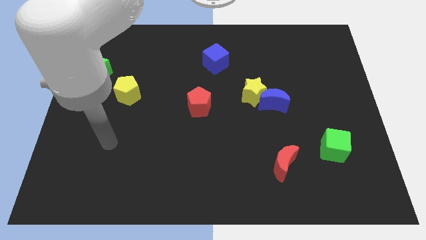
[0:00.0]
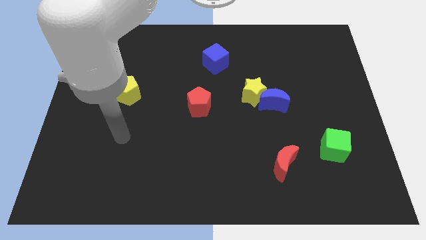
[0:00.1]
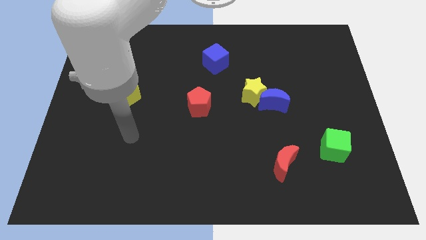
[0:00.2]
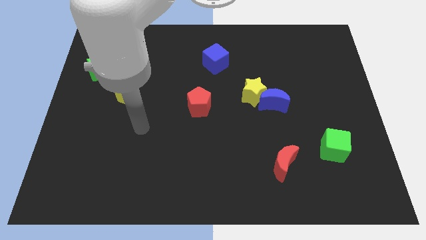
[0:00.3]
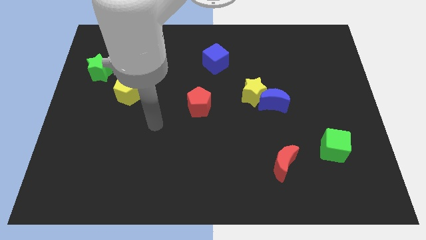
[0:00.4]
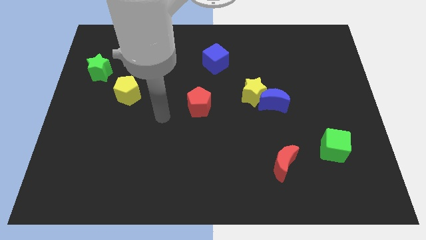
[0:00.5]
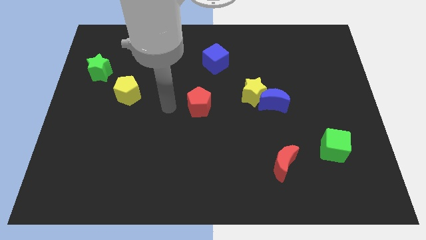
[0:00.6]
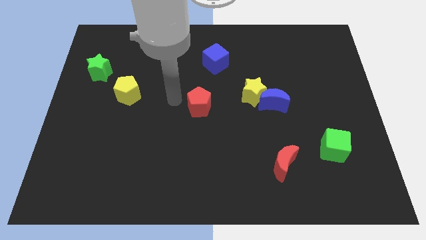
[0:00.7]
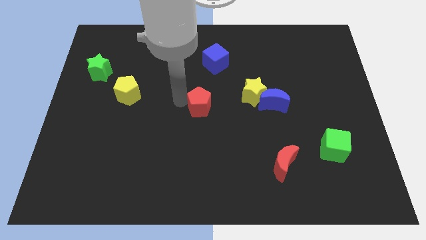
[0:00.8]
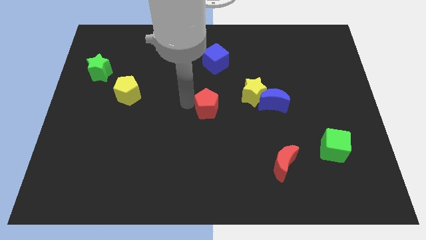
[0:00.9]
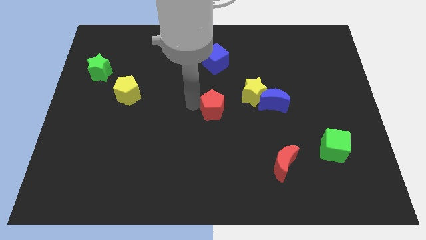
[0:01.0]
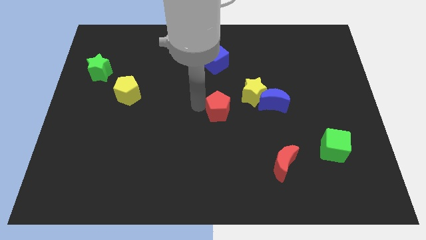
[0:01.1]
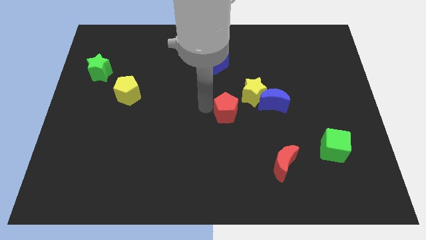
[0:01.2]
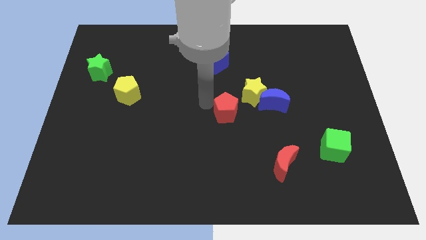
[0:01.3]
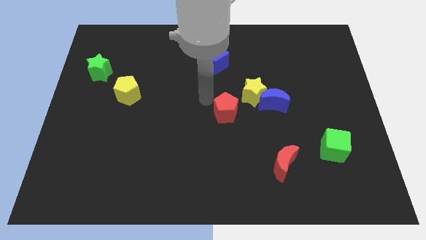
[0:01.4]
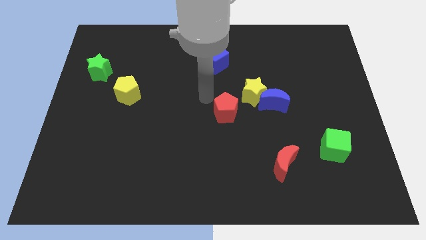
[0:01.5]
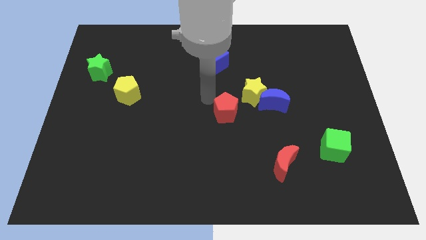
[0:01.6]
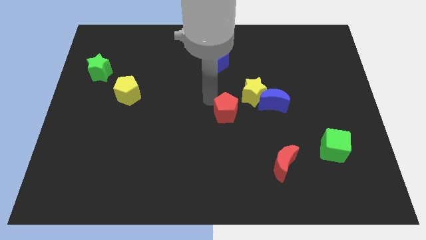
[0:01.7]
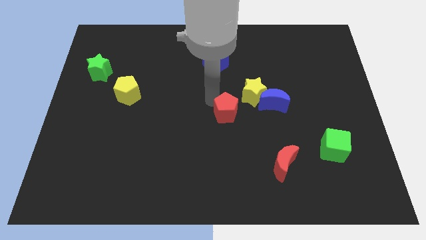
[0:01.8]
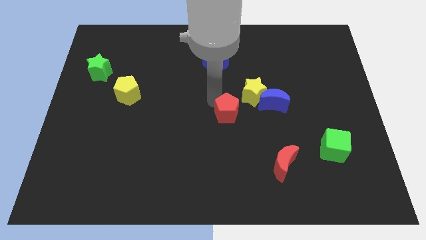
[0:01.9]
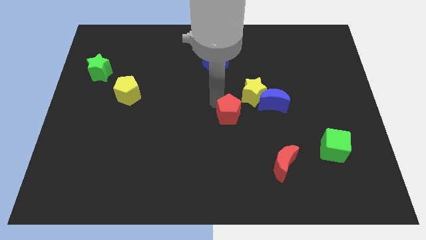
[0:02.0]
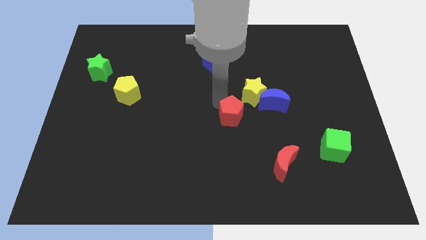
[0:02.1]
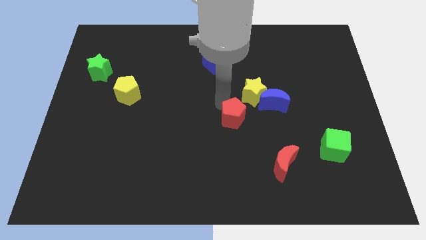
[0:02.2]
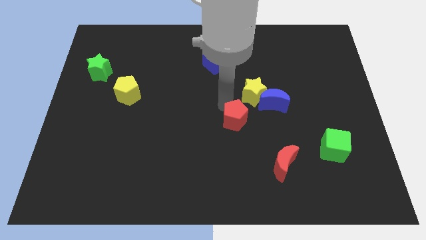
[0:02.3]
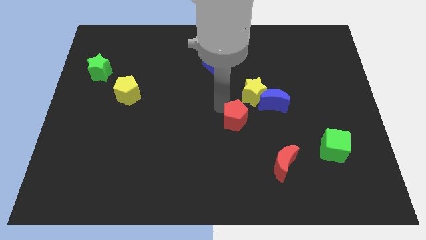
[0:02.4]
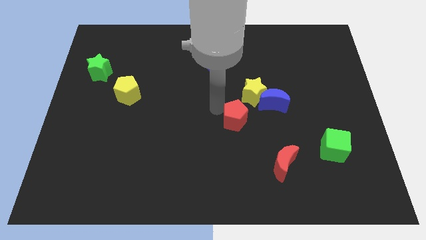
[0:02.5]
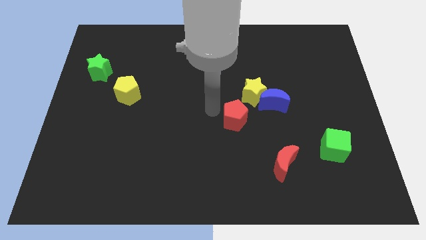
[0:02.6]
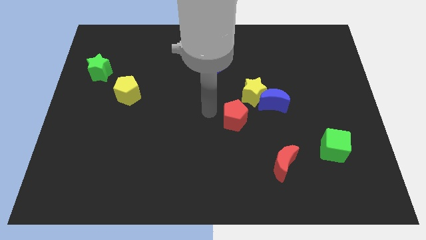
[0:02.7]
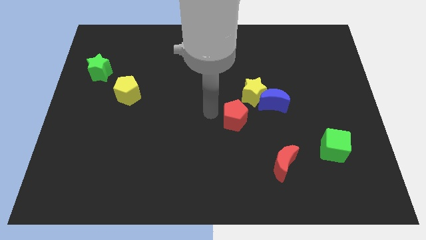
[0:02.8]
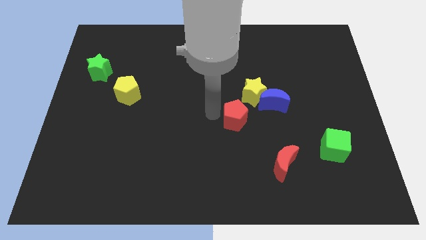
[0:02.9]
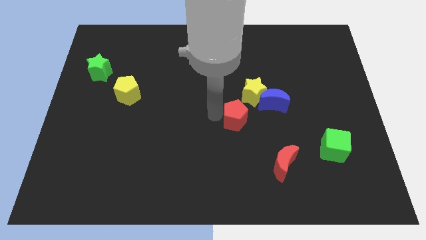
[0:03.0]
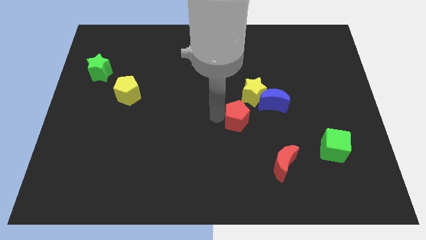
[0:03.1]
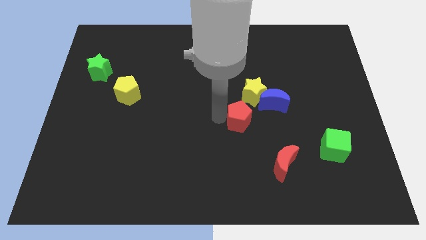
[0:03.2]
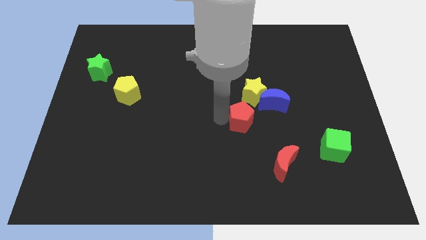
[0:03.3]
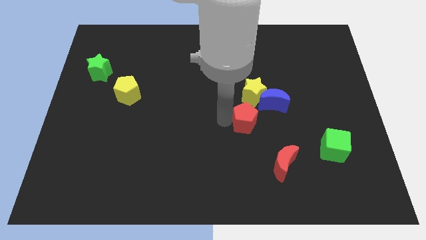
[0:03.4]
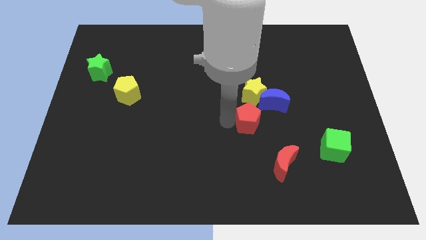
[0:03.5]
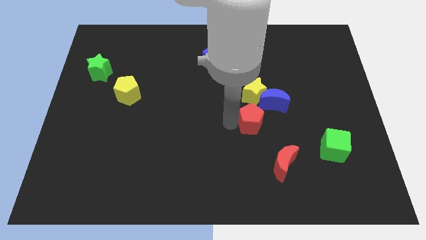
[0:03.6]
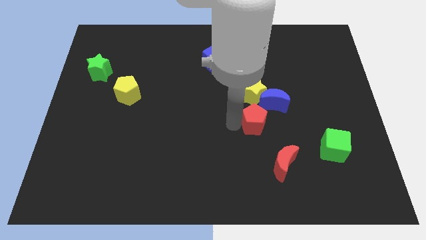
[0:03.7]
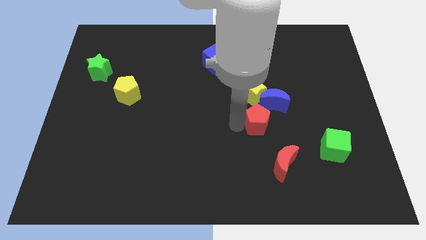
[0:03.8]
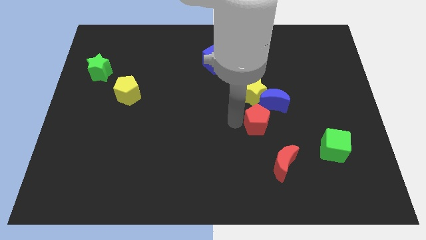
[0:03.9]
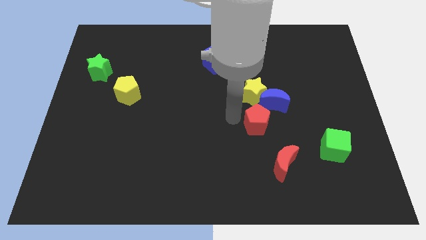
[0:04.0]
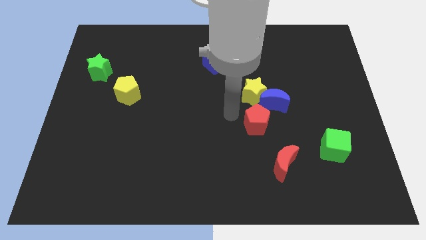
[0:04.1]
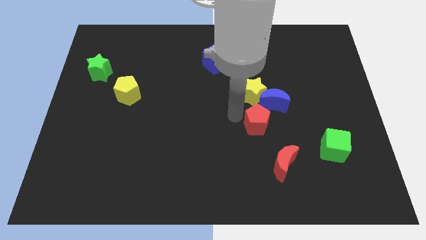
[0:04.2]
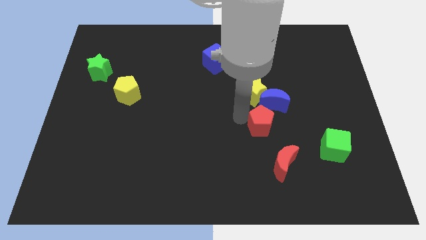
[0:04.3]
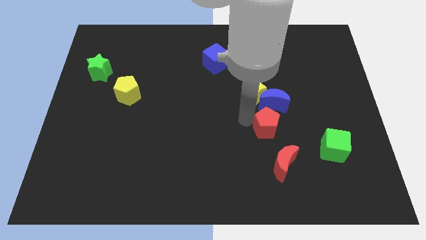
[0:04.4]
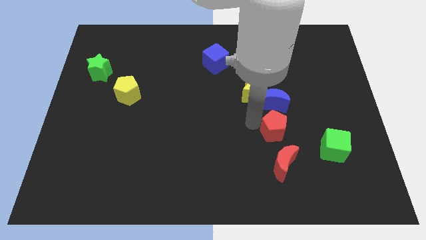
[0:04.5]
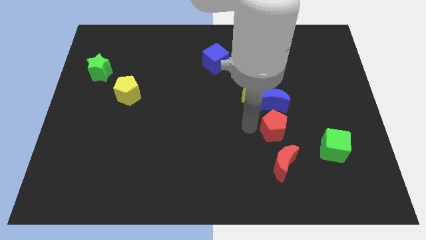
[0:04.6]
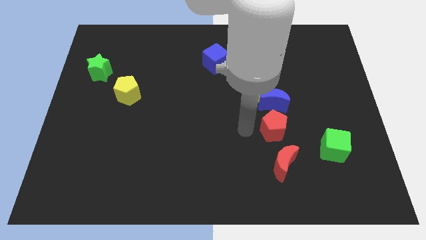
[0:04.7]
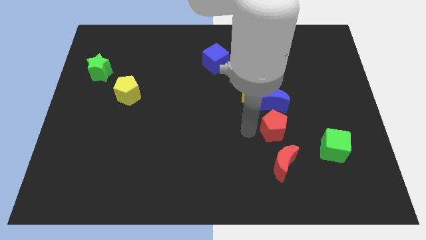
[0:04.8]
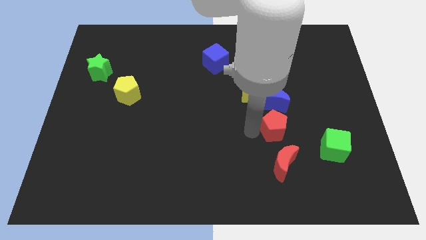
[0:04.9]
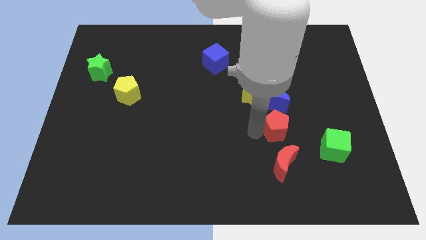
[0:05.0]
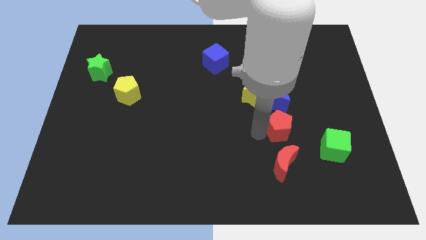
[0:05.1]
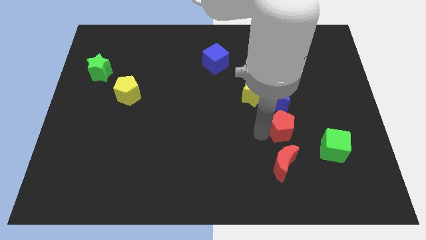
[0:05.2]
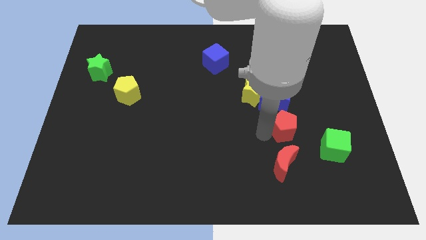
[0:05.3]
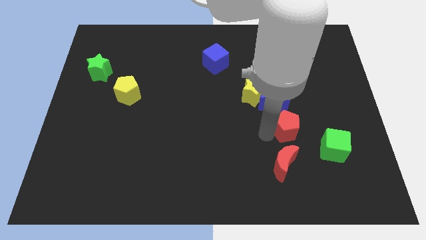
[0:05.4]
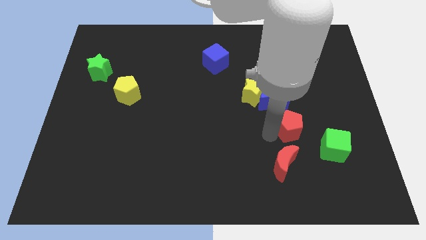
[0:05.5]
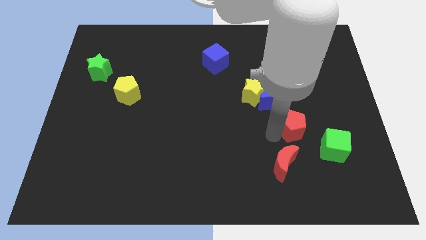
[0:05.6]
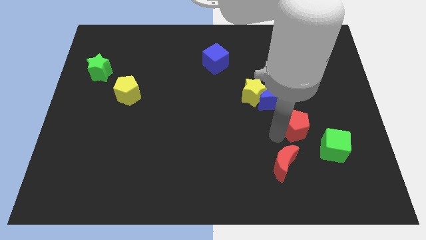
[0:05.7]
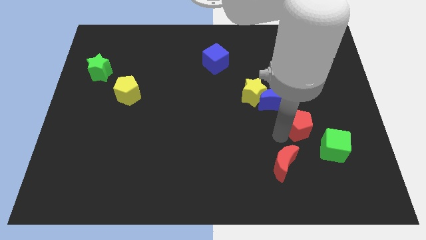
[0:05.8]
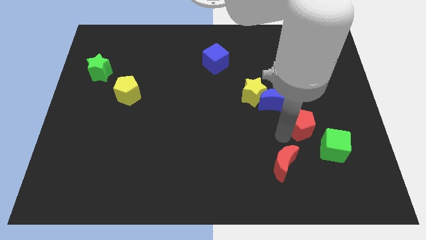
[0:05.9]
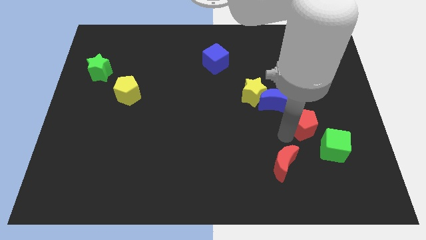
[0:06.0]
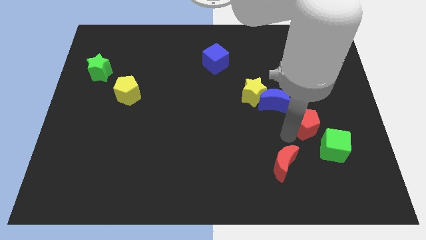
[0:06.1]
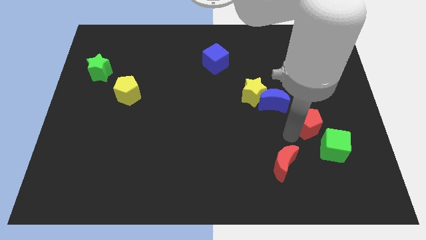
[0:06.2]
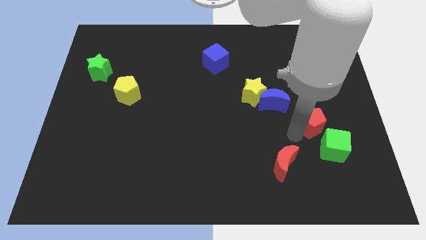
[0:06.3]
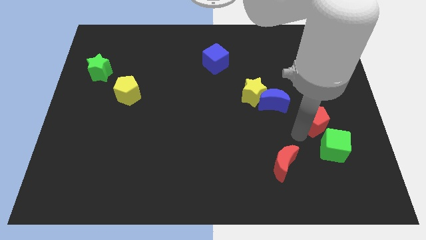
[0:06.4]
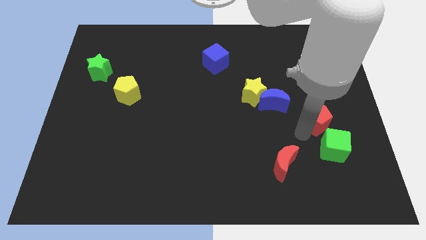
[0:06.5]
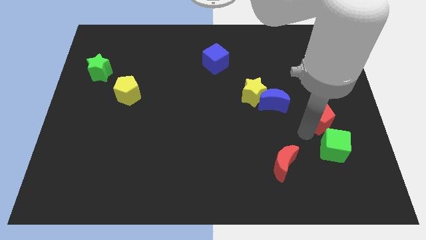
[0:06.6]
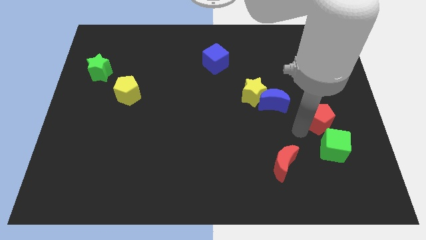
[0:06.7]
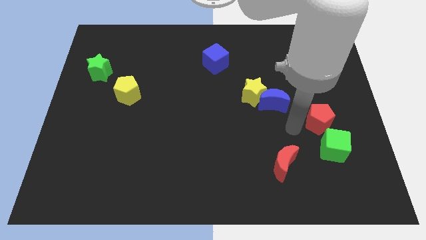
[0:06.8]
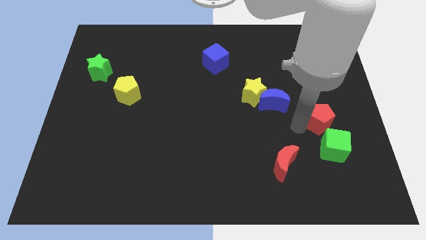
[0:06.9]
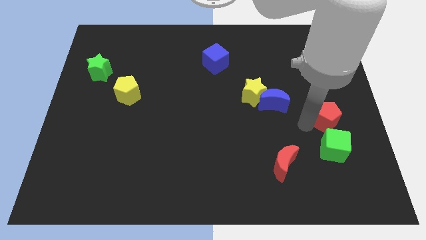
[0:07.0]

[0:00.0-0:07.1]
put the red pentagon to the right side
